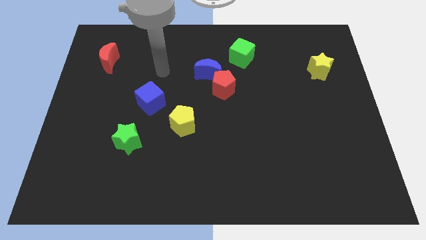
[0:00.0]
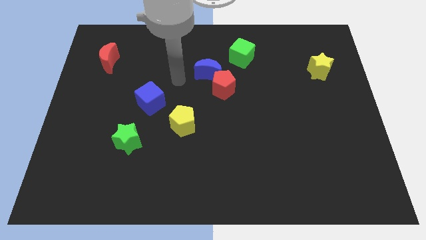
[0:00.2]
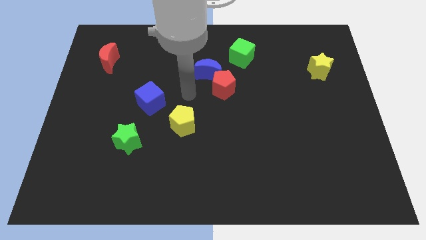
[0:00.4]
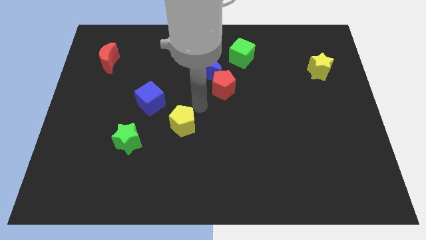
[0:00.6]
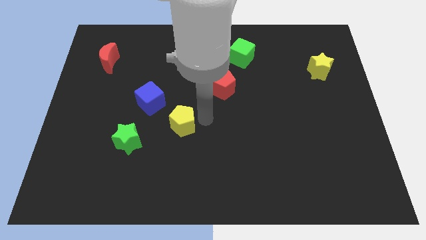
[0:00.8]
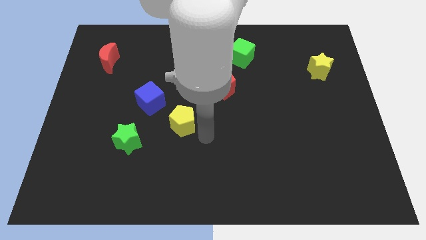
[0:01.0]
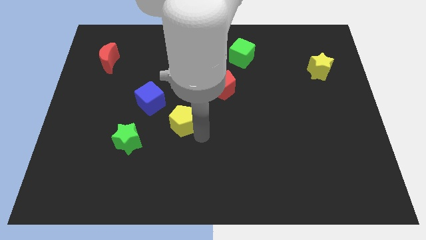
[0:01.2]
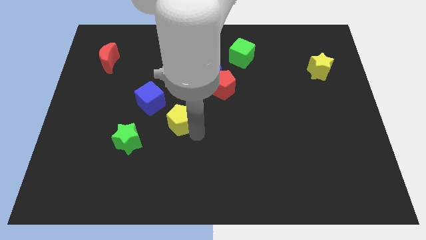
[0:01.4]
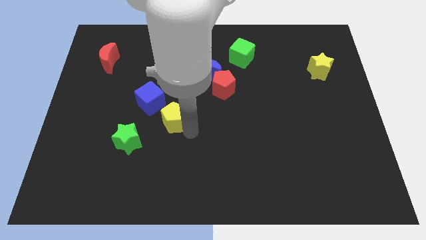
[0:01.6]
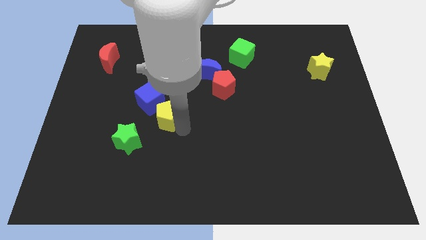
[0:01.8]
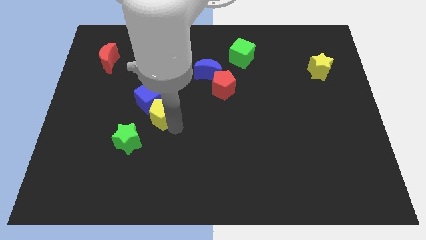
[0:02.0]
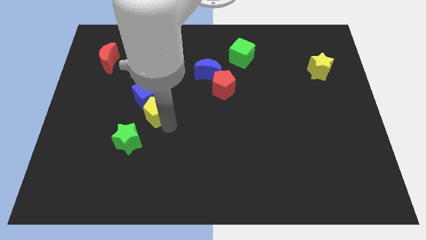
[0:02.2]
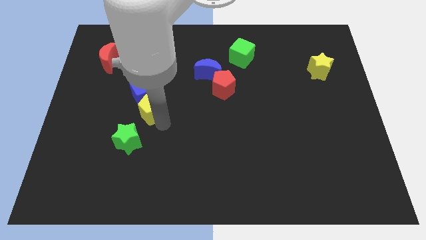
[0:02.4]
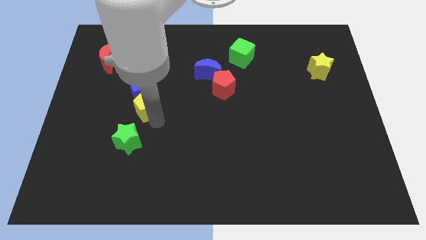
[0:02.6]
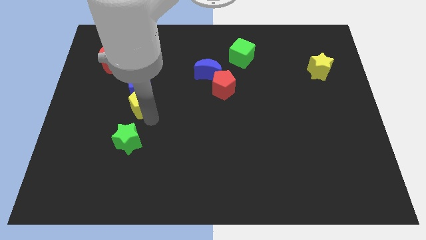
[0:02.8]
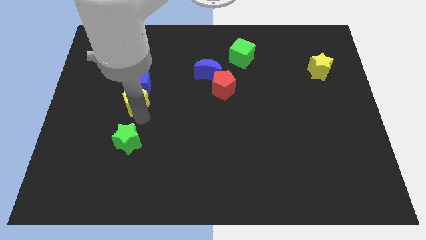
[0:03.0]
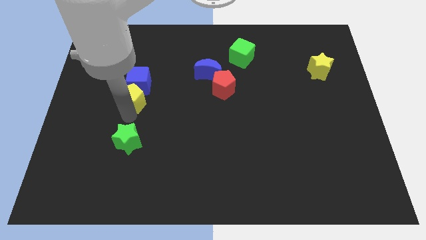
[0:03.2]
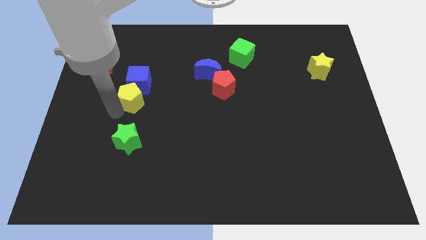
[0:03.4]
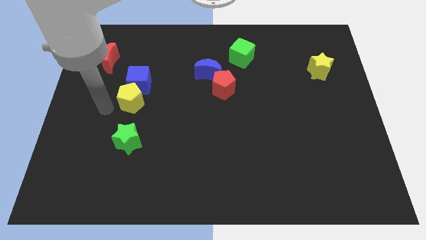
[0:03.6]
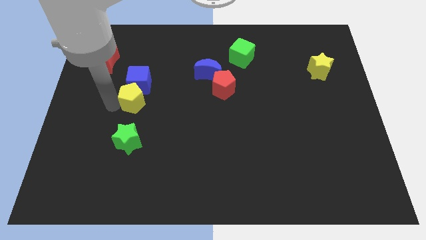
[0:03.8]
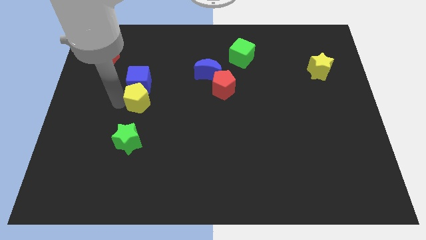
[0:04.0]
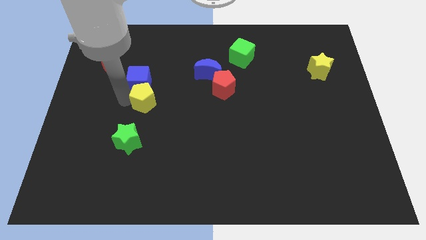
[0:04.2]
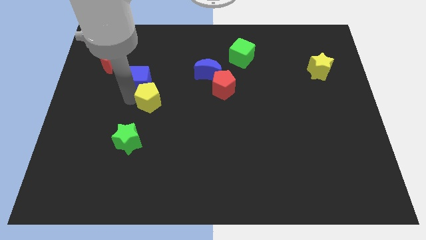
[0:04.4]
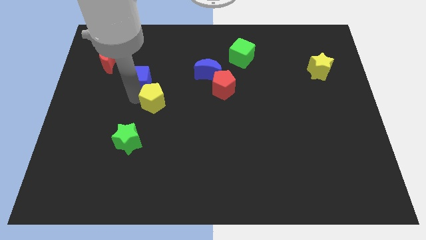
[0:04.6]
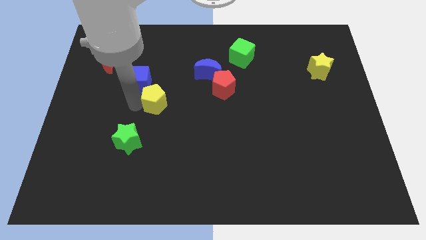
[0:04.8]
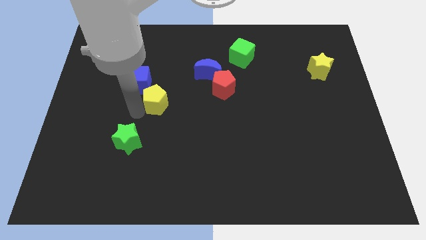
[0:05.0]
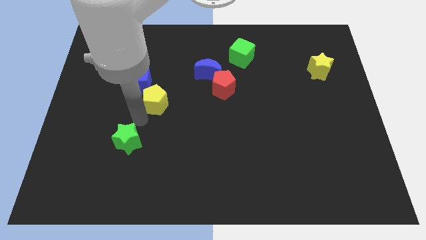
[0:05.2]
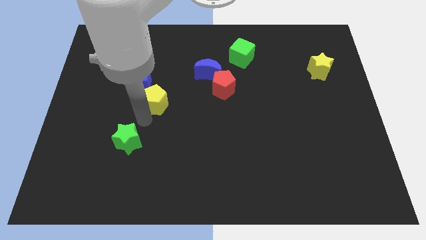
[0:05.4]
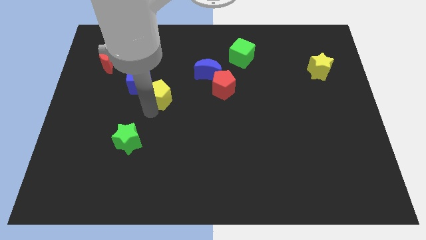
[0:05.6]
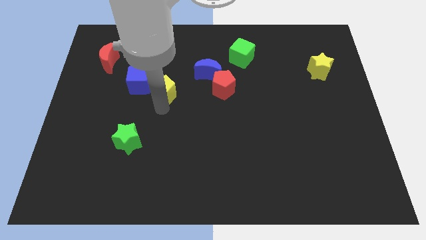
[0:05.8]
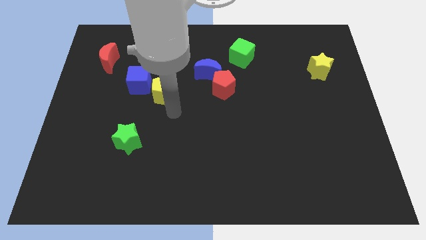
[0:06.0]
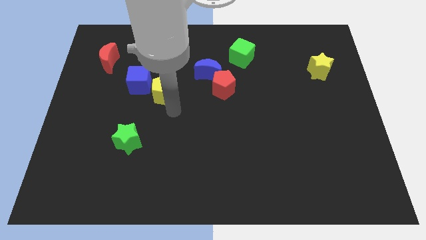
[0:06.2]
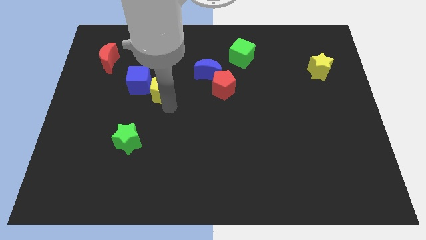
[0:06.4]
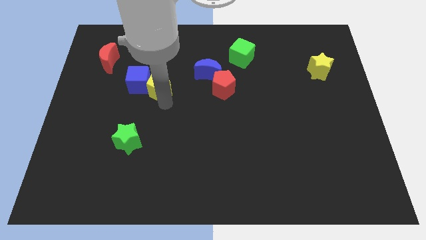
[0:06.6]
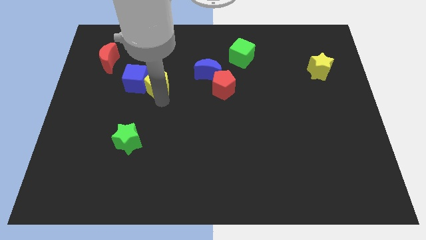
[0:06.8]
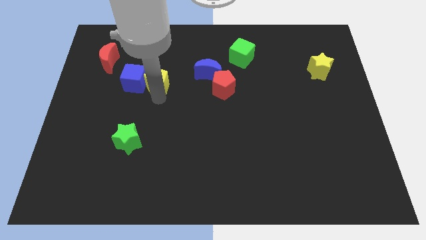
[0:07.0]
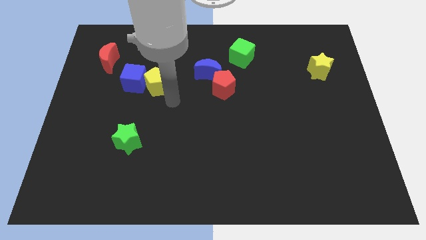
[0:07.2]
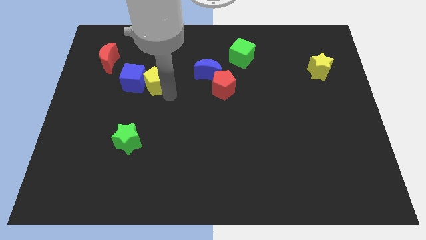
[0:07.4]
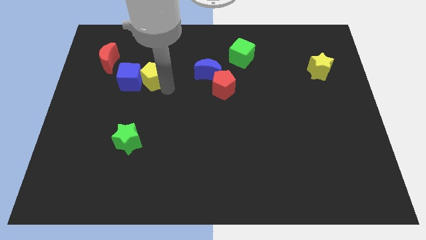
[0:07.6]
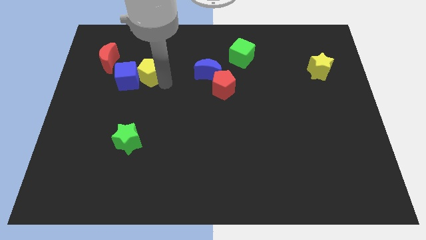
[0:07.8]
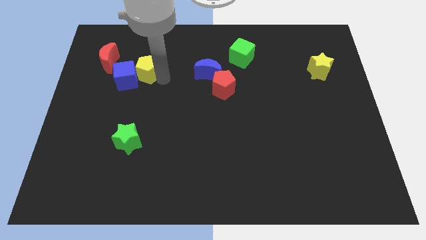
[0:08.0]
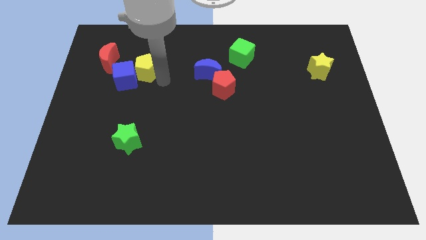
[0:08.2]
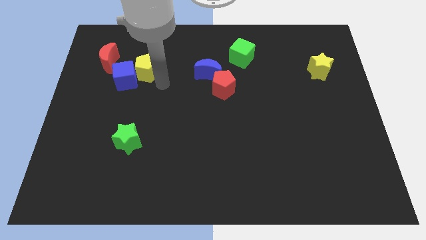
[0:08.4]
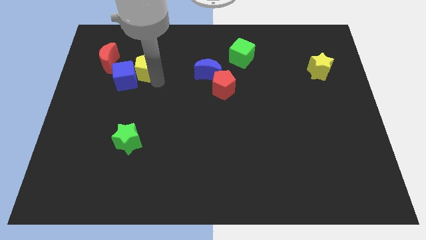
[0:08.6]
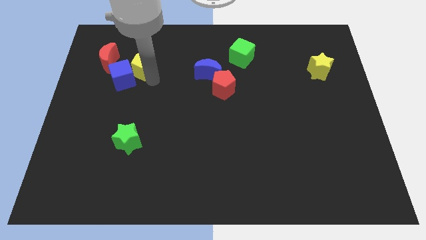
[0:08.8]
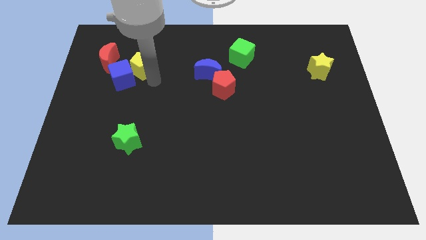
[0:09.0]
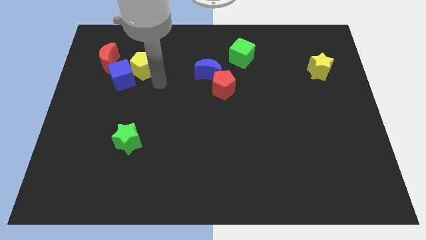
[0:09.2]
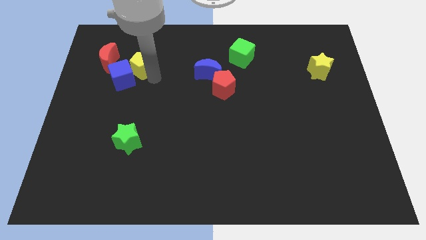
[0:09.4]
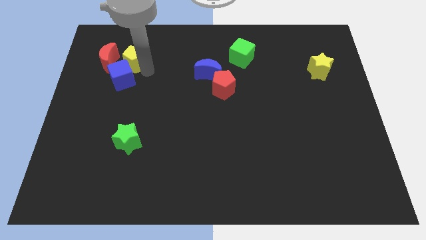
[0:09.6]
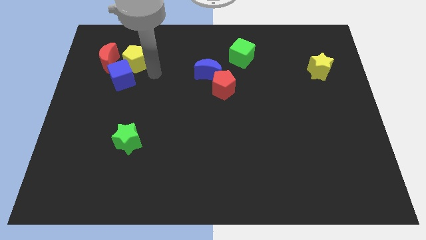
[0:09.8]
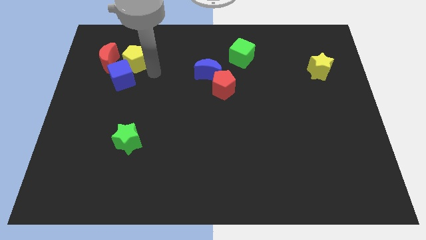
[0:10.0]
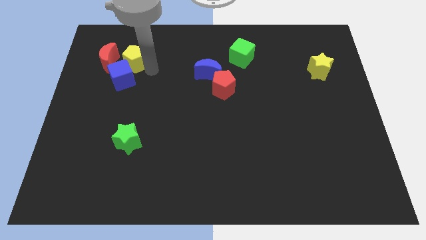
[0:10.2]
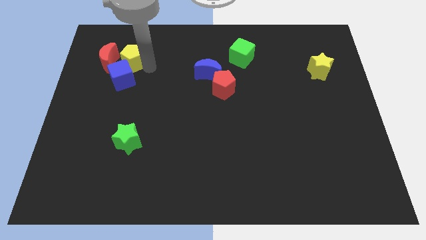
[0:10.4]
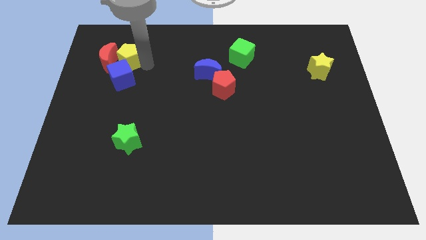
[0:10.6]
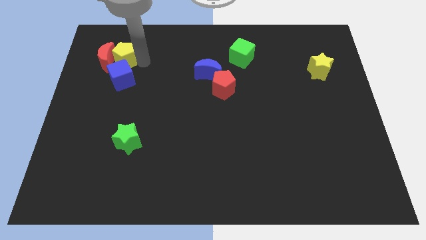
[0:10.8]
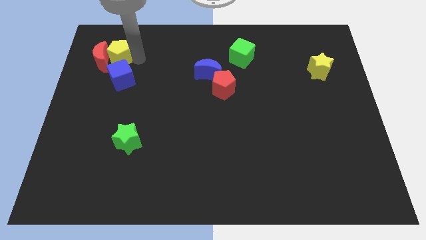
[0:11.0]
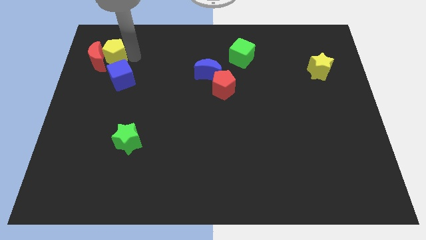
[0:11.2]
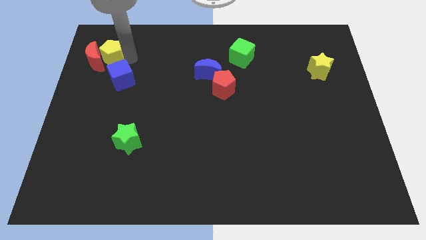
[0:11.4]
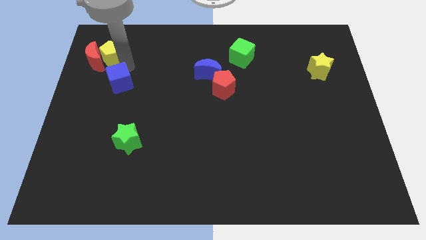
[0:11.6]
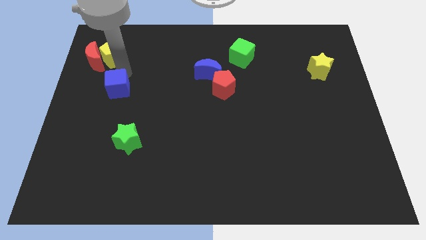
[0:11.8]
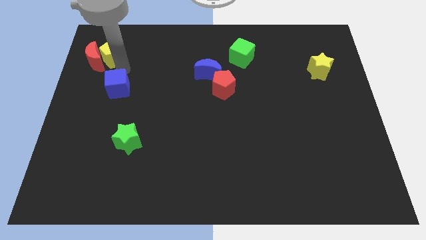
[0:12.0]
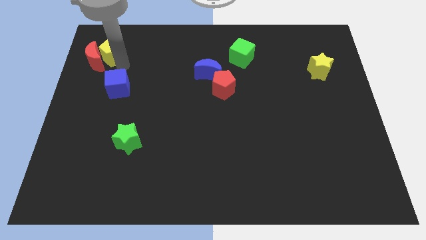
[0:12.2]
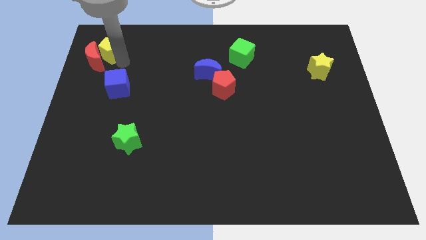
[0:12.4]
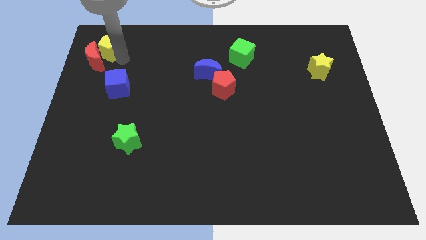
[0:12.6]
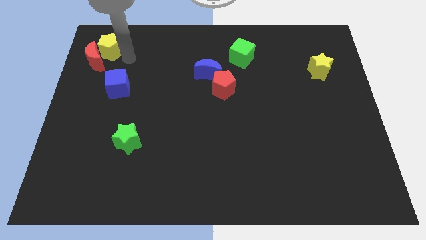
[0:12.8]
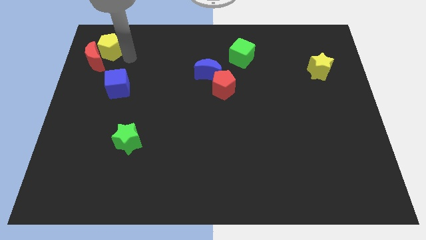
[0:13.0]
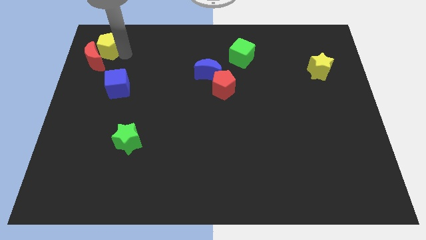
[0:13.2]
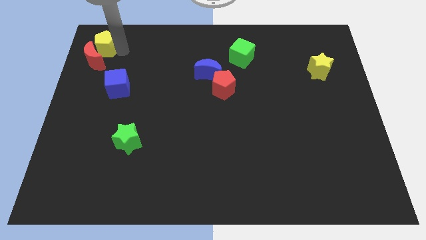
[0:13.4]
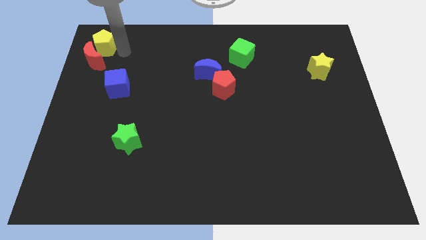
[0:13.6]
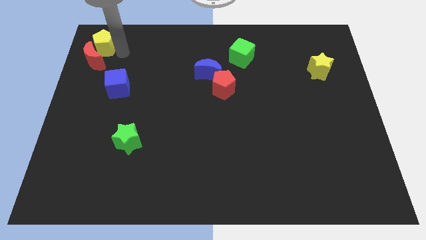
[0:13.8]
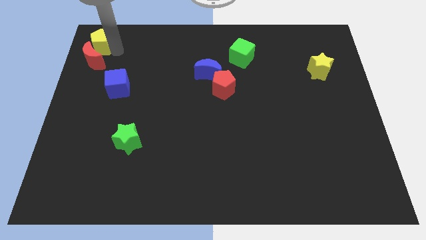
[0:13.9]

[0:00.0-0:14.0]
slide the yellow pentagon to the top left corner
